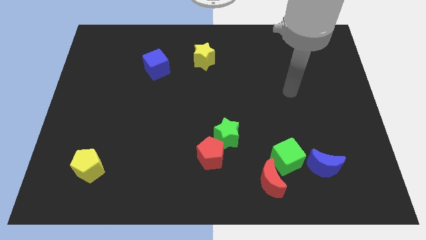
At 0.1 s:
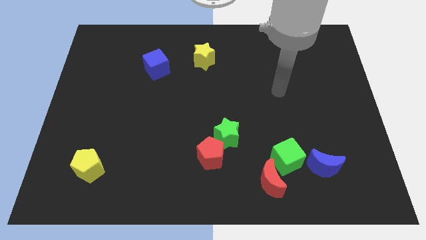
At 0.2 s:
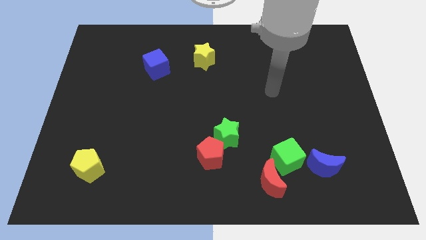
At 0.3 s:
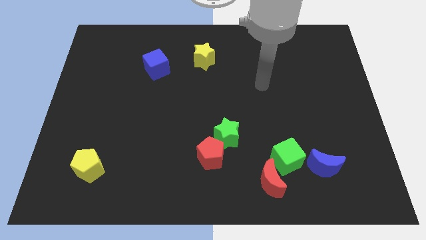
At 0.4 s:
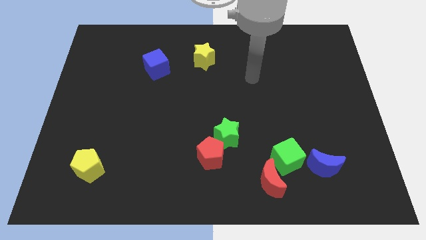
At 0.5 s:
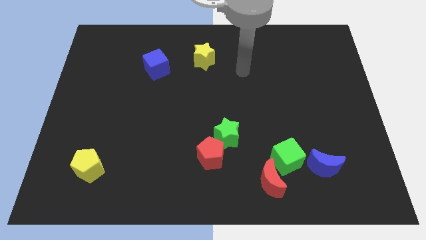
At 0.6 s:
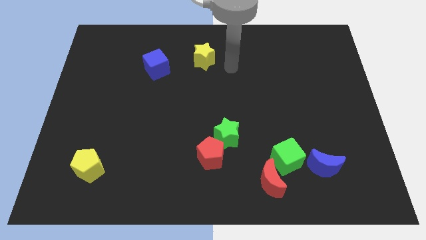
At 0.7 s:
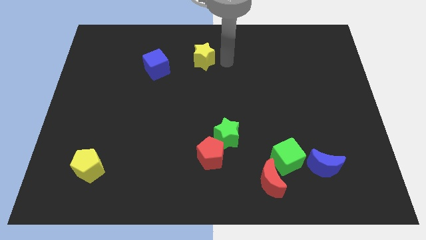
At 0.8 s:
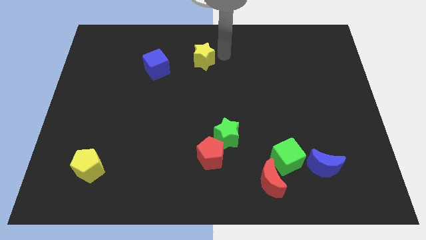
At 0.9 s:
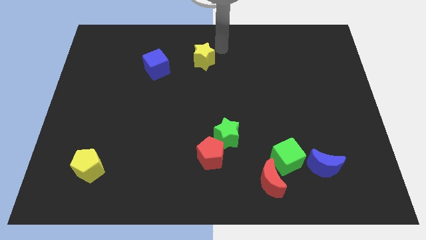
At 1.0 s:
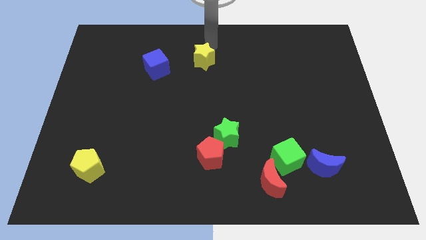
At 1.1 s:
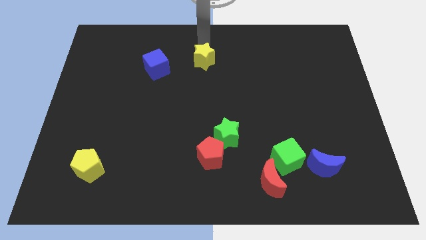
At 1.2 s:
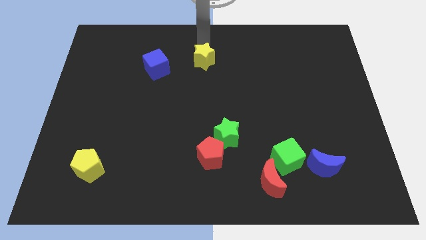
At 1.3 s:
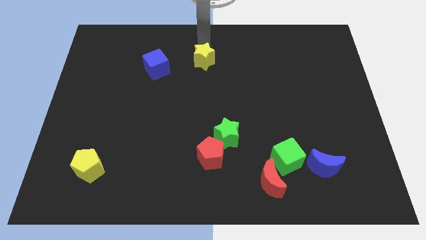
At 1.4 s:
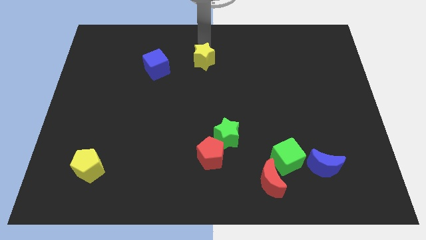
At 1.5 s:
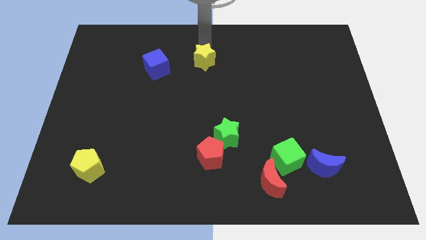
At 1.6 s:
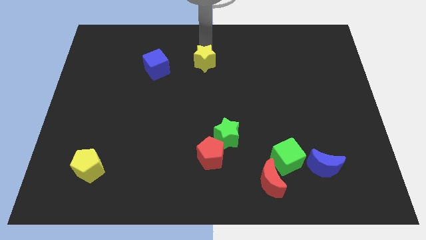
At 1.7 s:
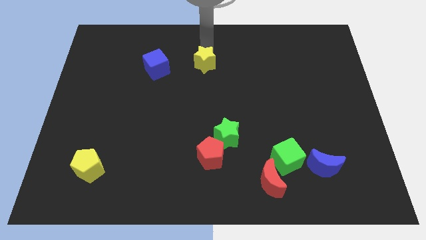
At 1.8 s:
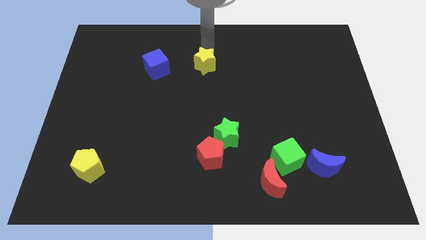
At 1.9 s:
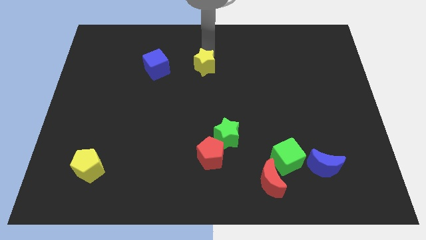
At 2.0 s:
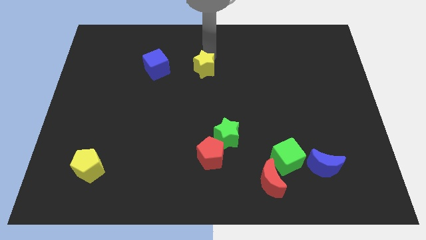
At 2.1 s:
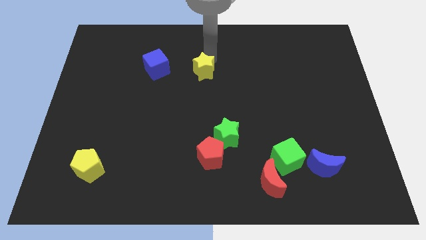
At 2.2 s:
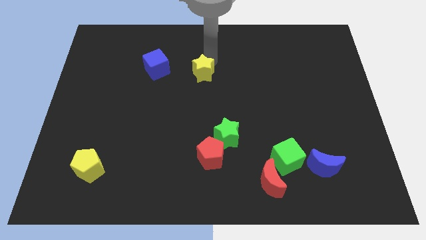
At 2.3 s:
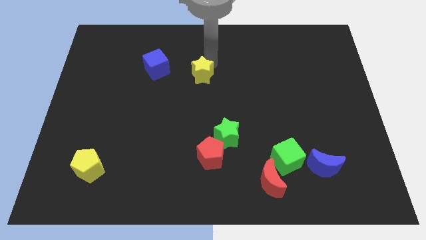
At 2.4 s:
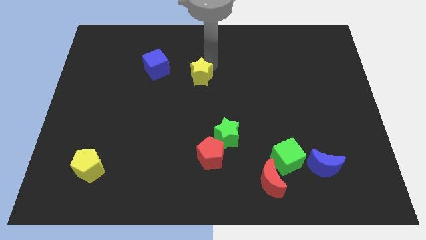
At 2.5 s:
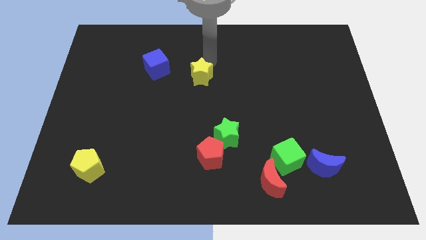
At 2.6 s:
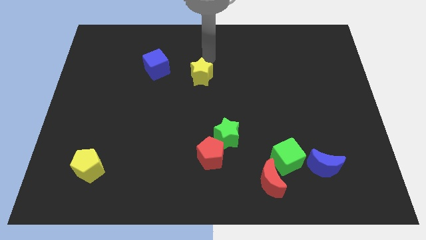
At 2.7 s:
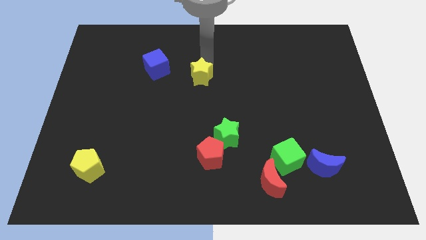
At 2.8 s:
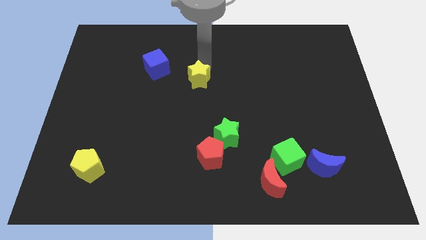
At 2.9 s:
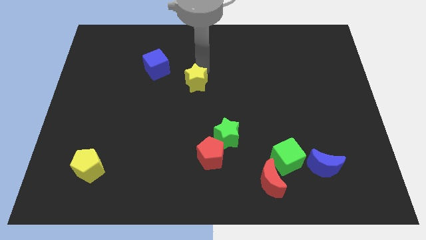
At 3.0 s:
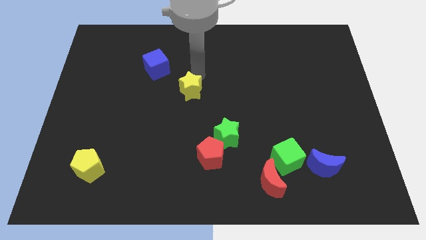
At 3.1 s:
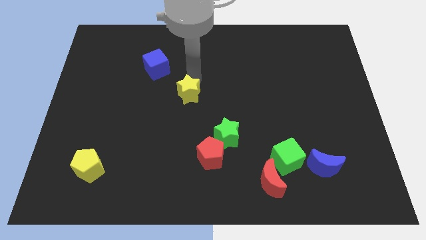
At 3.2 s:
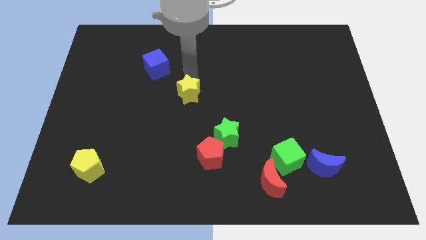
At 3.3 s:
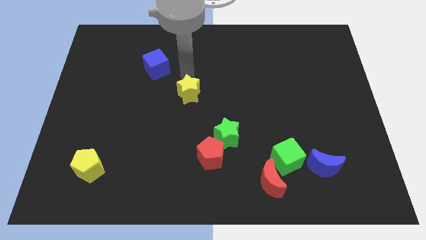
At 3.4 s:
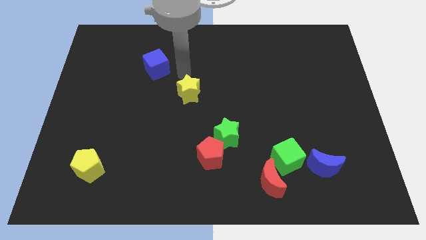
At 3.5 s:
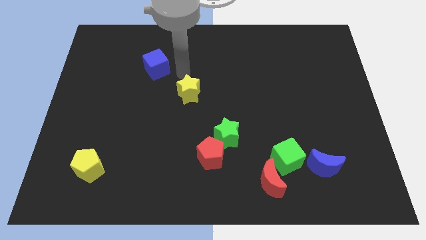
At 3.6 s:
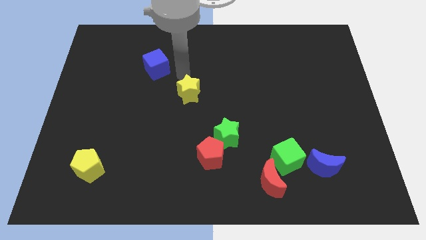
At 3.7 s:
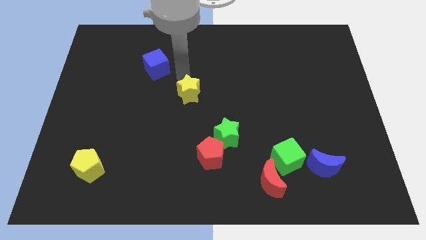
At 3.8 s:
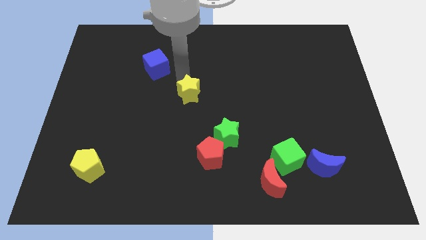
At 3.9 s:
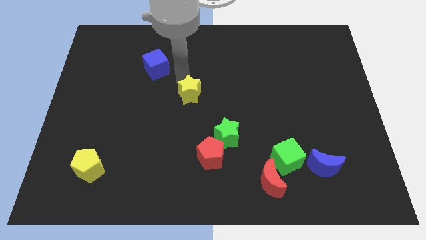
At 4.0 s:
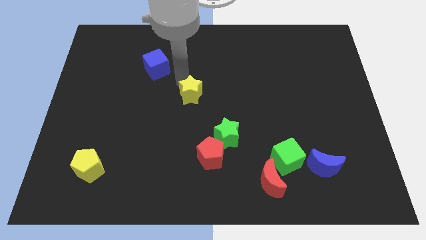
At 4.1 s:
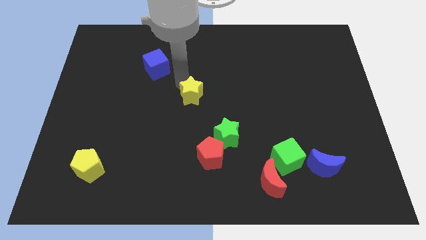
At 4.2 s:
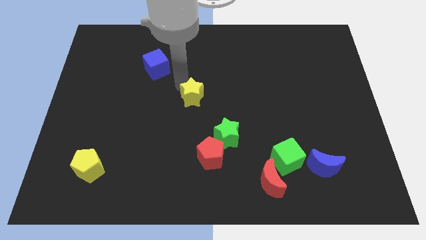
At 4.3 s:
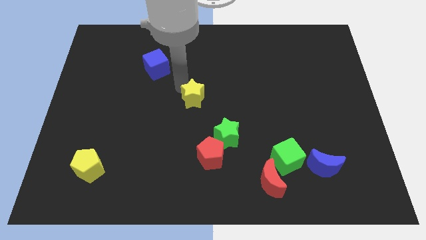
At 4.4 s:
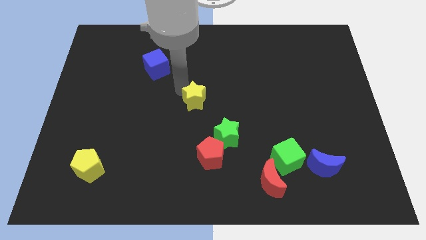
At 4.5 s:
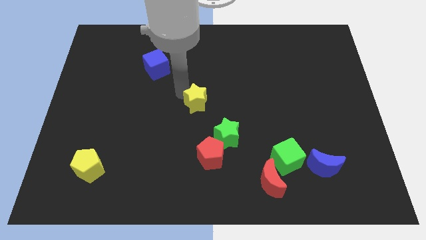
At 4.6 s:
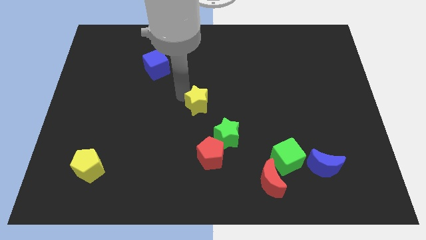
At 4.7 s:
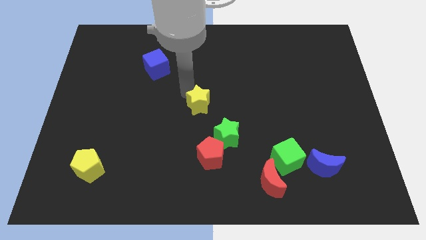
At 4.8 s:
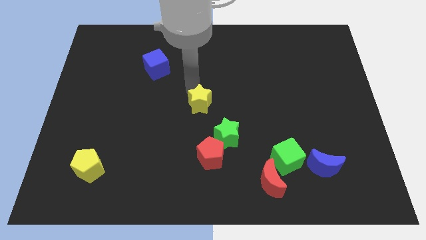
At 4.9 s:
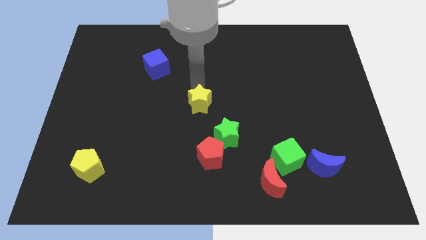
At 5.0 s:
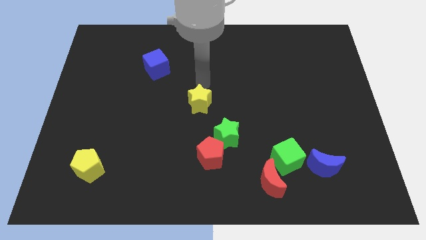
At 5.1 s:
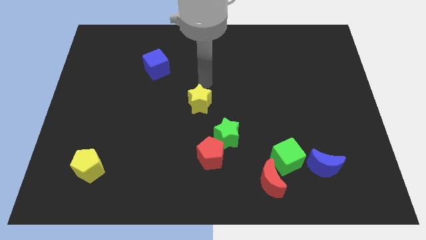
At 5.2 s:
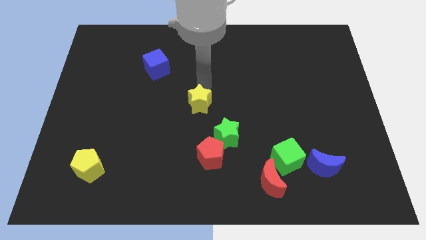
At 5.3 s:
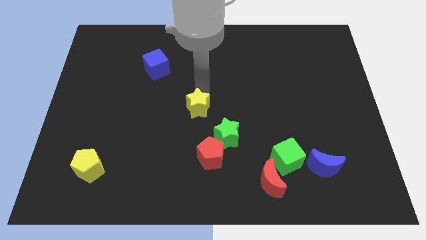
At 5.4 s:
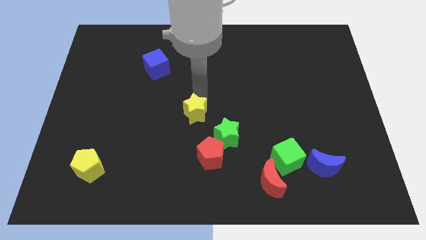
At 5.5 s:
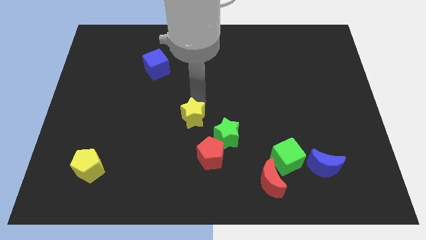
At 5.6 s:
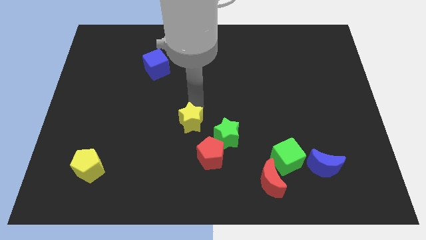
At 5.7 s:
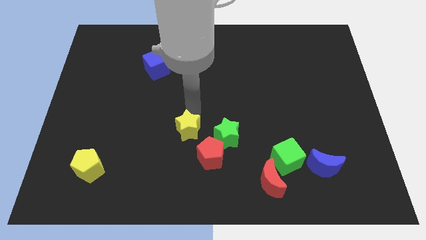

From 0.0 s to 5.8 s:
push the yellow star downwards

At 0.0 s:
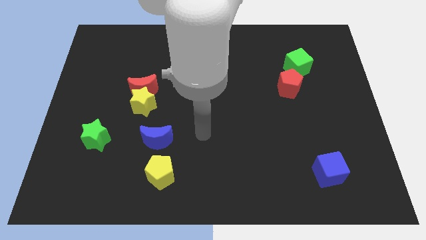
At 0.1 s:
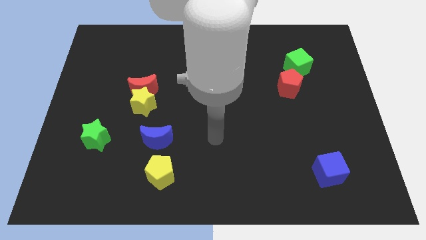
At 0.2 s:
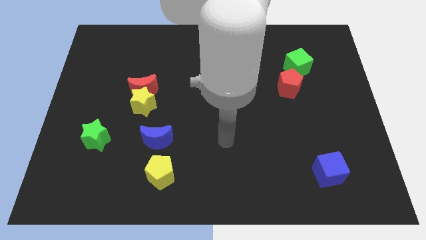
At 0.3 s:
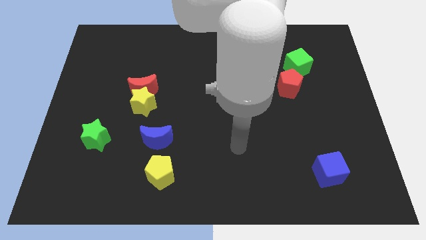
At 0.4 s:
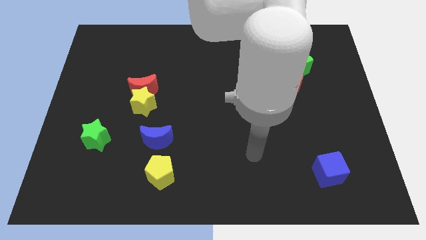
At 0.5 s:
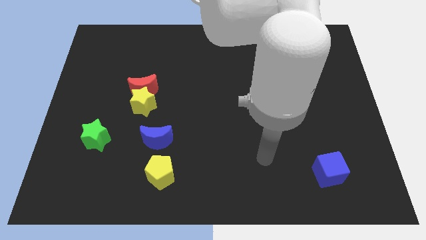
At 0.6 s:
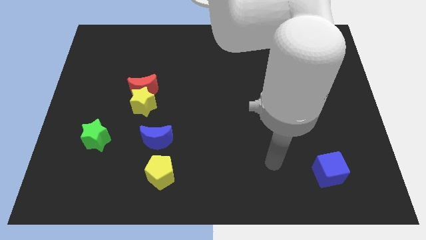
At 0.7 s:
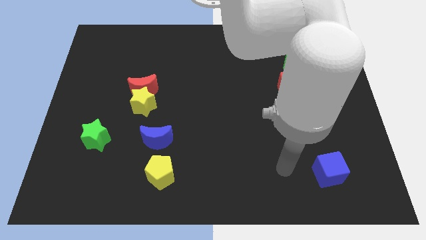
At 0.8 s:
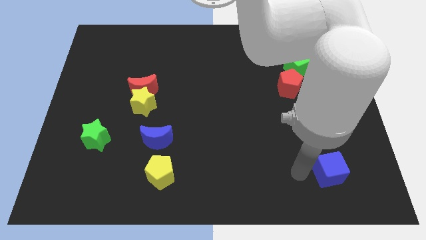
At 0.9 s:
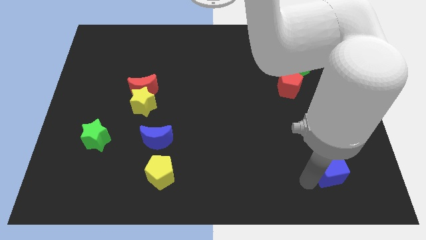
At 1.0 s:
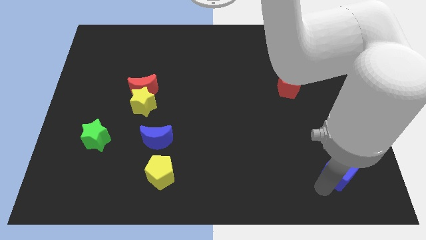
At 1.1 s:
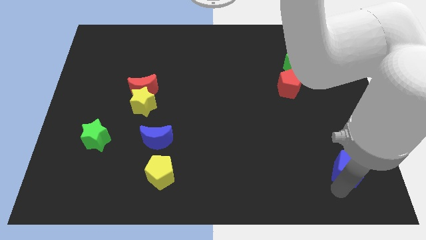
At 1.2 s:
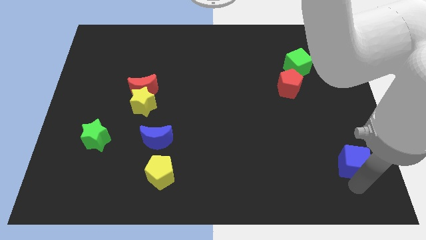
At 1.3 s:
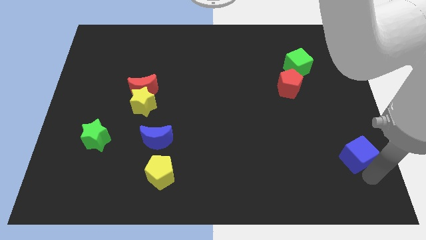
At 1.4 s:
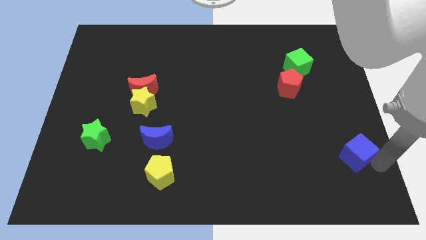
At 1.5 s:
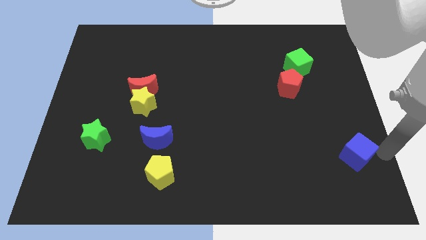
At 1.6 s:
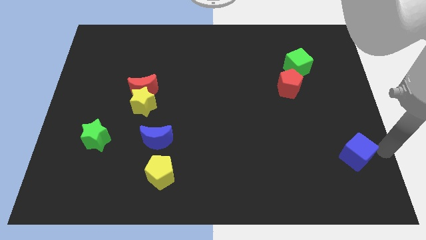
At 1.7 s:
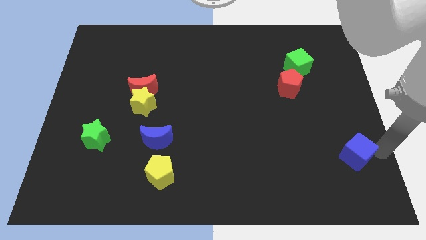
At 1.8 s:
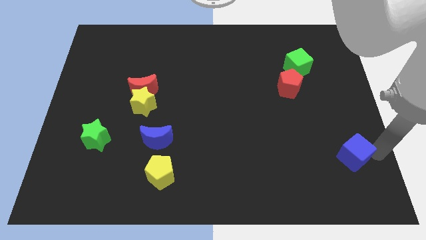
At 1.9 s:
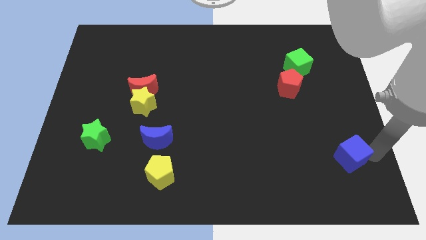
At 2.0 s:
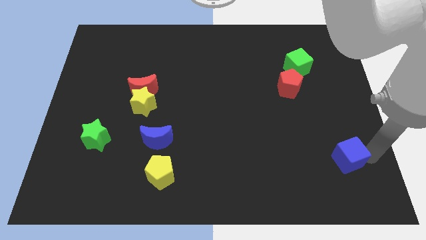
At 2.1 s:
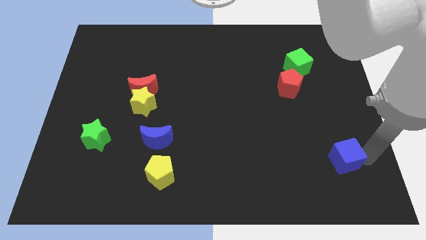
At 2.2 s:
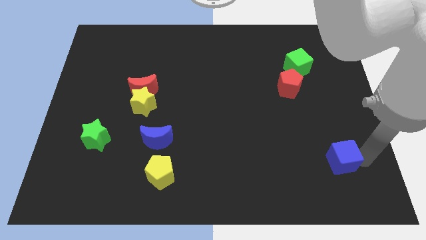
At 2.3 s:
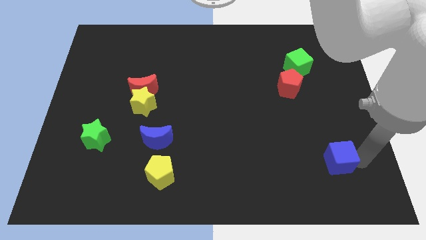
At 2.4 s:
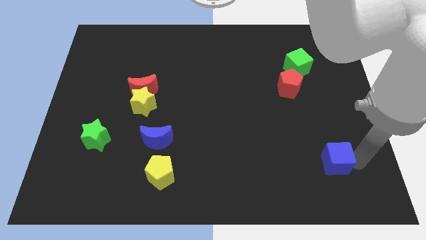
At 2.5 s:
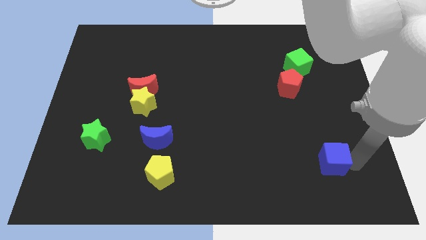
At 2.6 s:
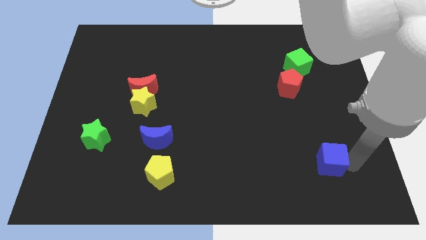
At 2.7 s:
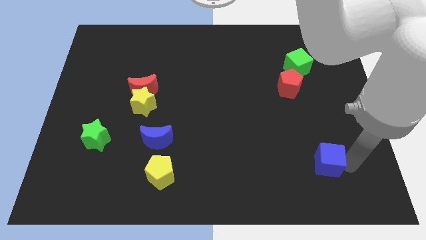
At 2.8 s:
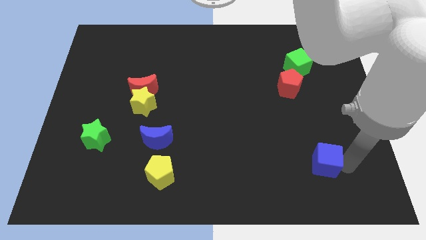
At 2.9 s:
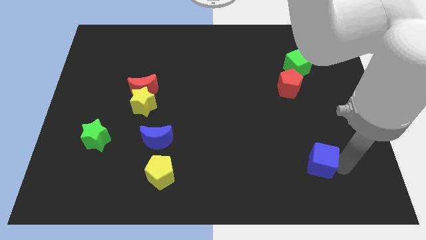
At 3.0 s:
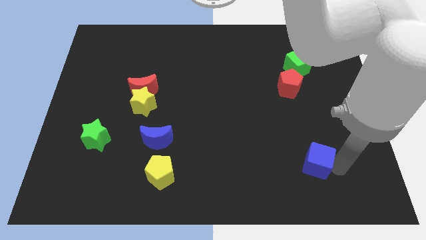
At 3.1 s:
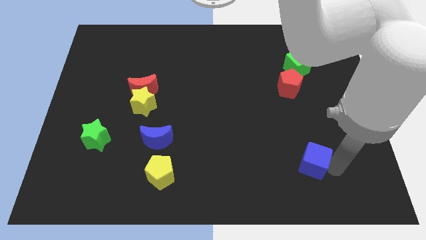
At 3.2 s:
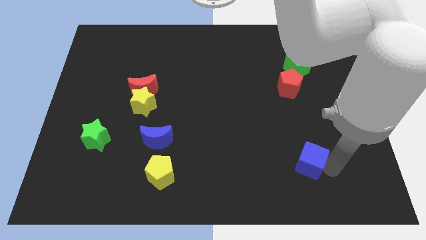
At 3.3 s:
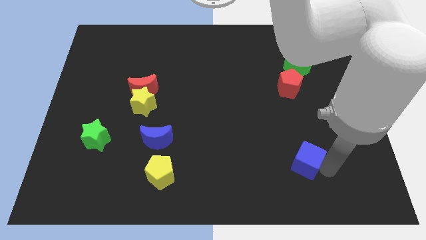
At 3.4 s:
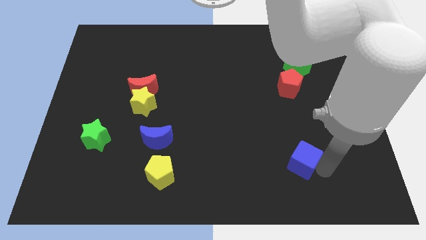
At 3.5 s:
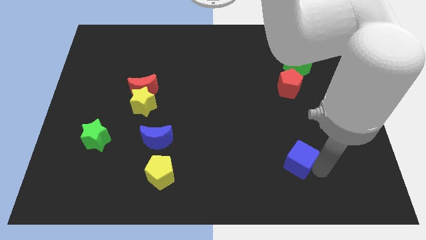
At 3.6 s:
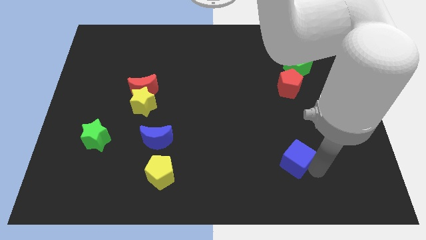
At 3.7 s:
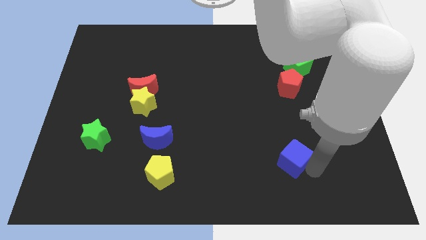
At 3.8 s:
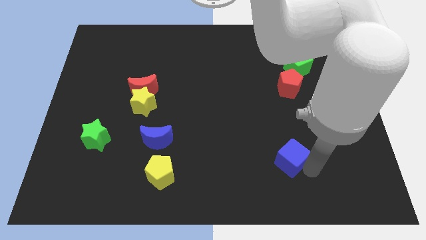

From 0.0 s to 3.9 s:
move the blue cube somewhat diagonally up and to the left
